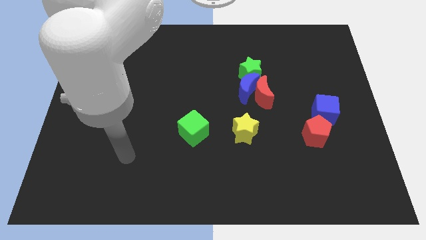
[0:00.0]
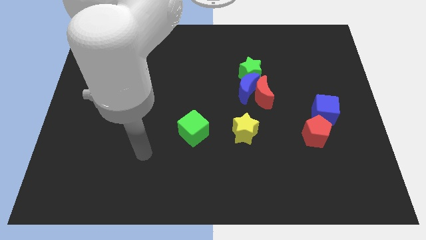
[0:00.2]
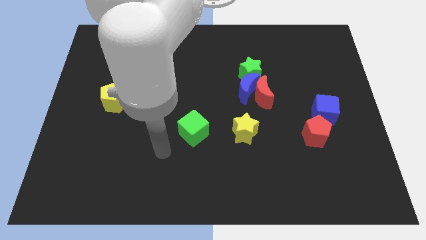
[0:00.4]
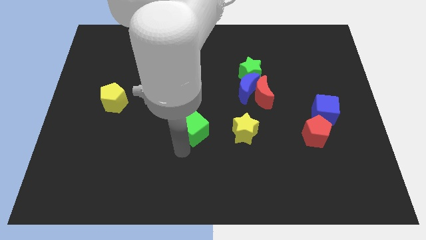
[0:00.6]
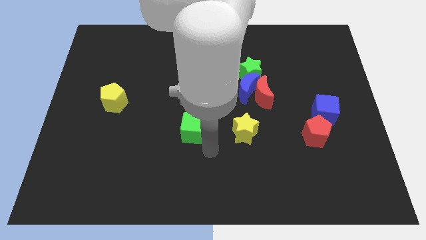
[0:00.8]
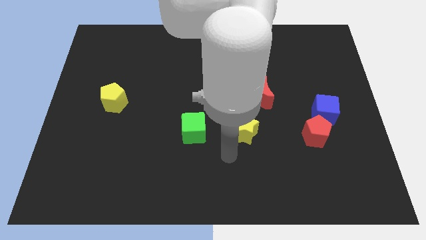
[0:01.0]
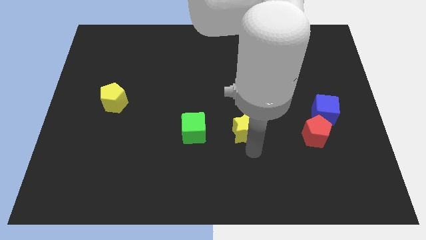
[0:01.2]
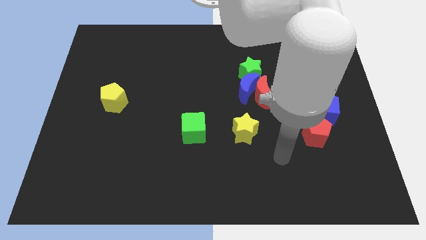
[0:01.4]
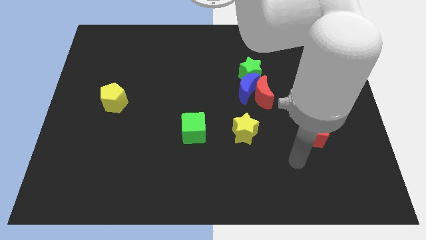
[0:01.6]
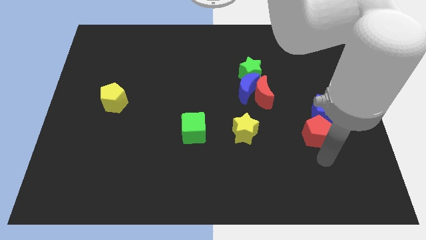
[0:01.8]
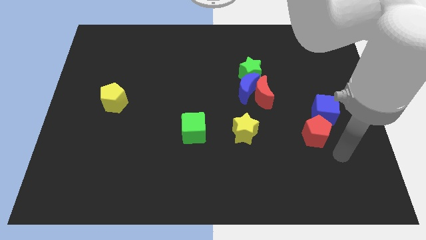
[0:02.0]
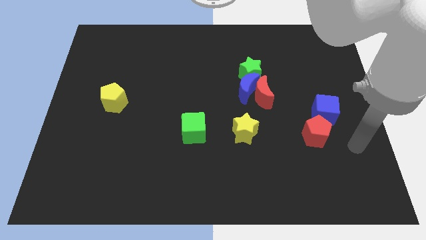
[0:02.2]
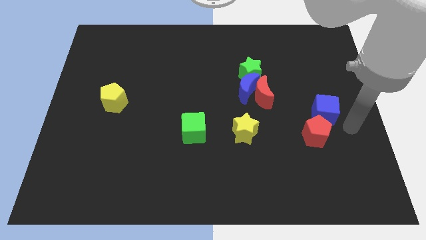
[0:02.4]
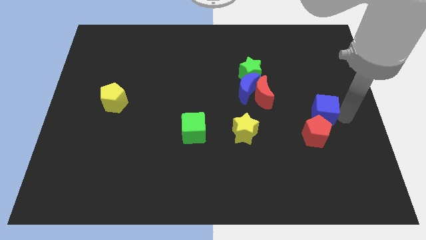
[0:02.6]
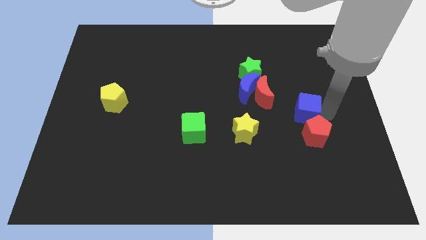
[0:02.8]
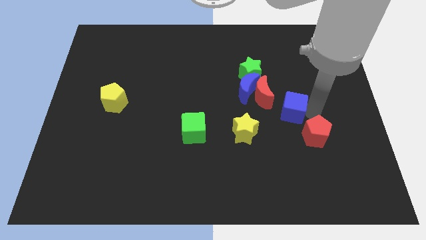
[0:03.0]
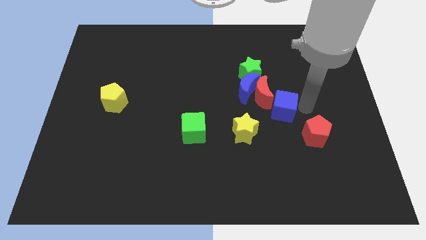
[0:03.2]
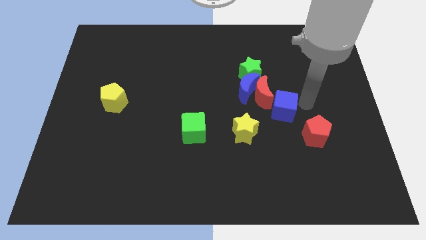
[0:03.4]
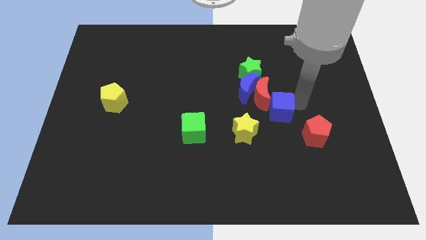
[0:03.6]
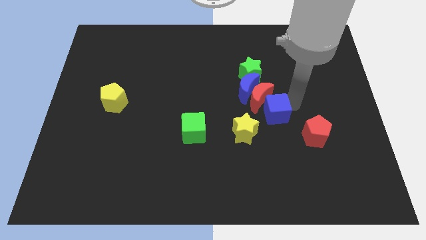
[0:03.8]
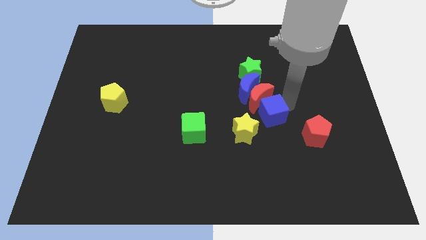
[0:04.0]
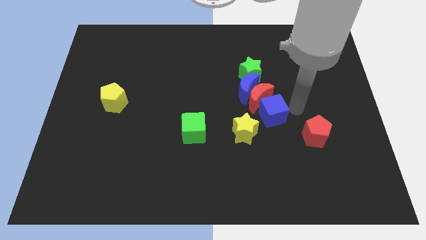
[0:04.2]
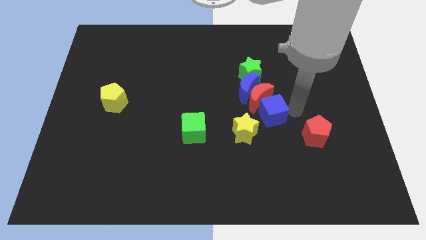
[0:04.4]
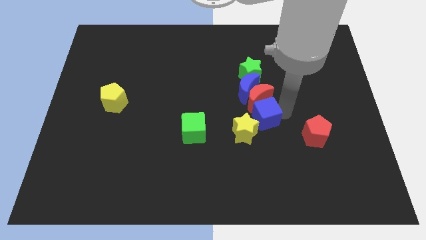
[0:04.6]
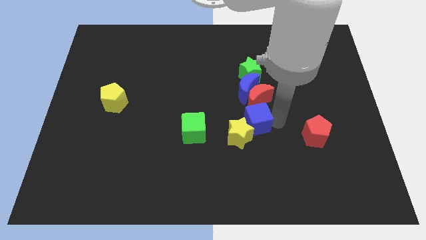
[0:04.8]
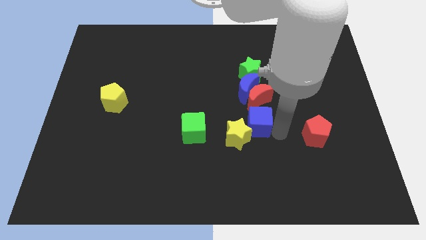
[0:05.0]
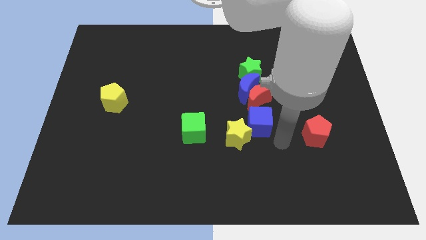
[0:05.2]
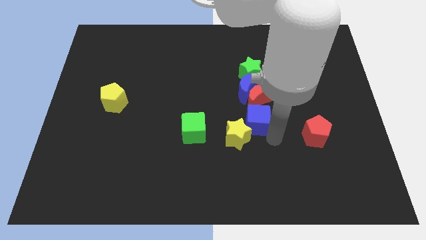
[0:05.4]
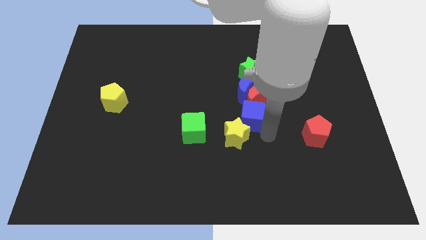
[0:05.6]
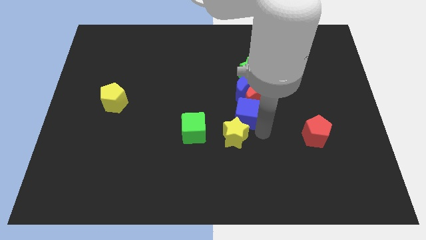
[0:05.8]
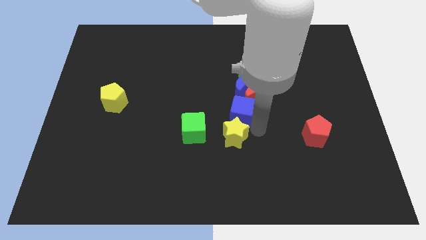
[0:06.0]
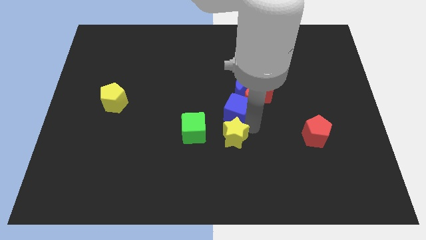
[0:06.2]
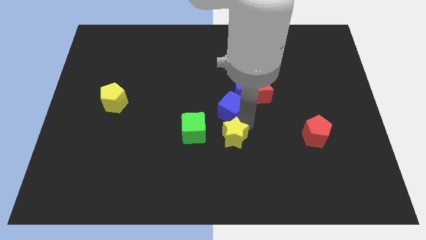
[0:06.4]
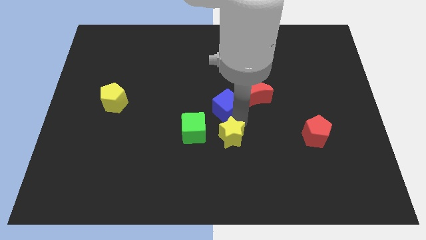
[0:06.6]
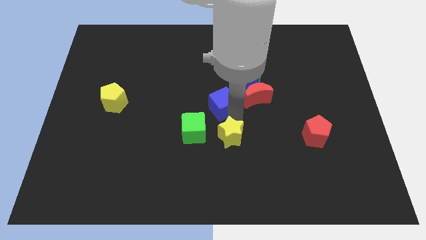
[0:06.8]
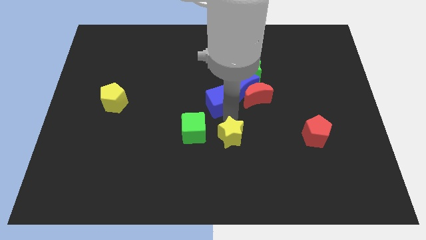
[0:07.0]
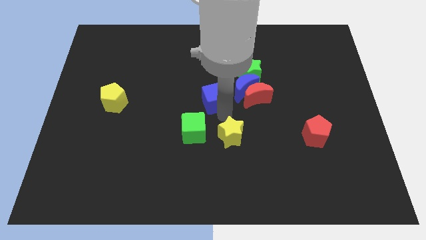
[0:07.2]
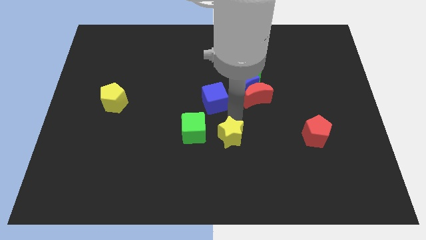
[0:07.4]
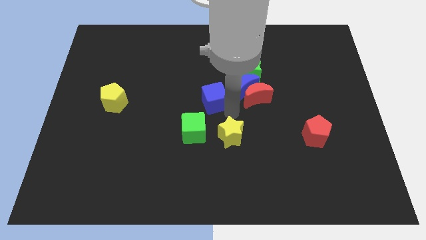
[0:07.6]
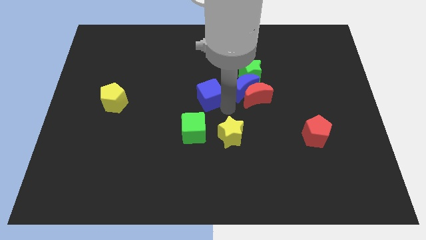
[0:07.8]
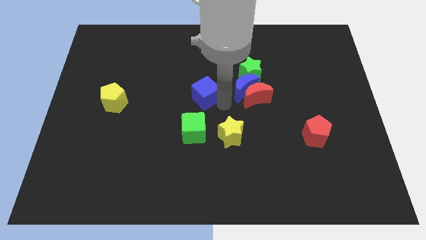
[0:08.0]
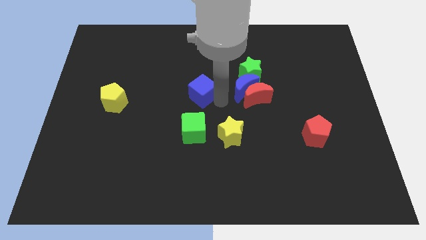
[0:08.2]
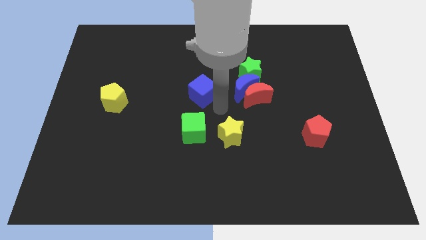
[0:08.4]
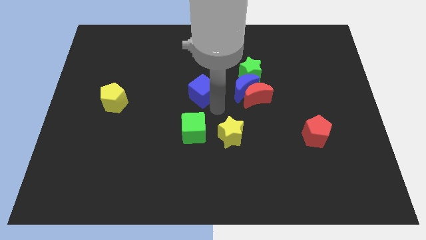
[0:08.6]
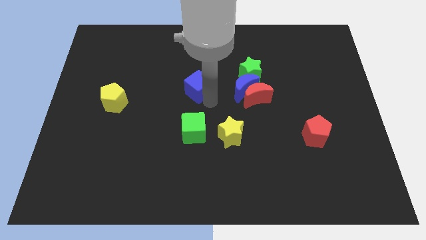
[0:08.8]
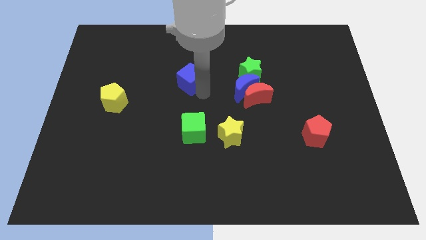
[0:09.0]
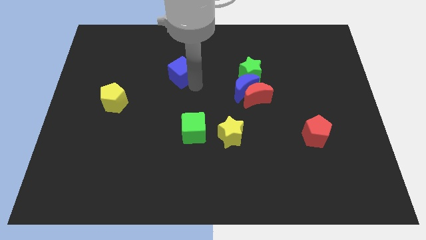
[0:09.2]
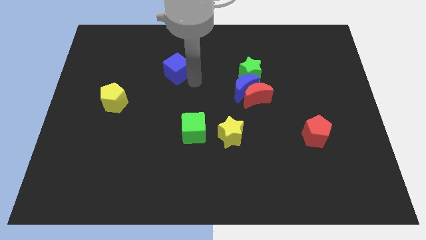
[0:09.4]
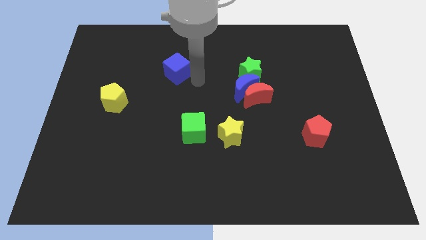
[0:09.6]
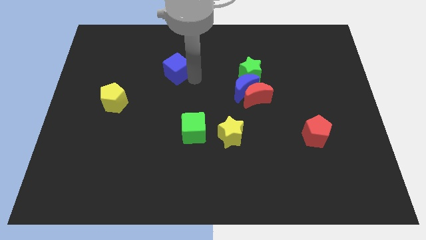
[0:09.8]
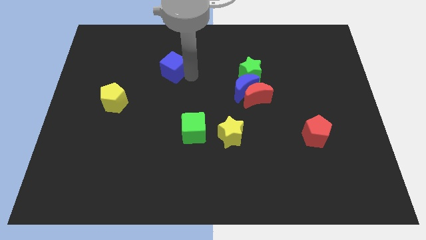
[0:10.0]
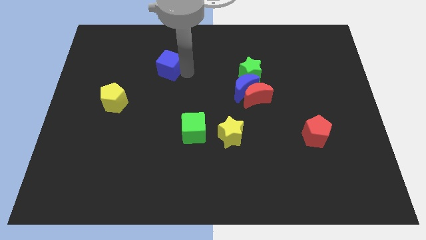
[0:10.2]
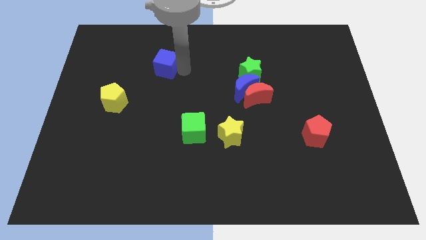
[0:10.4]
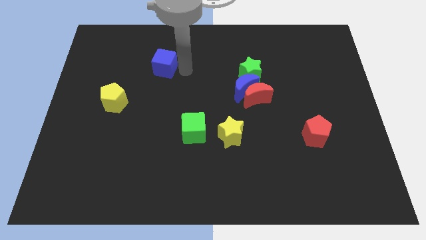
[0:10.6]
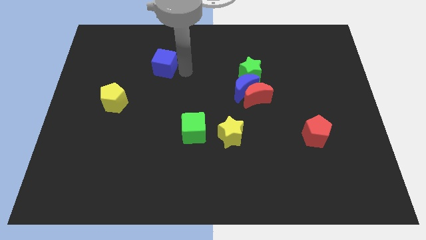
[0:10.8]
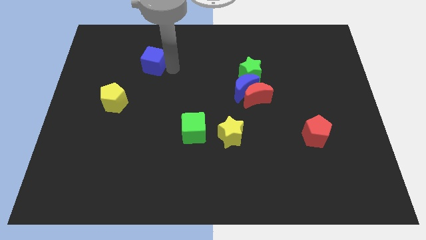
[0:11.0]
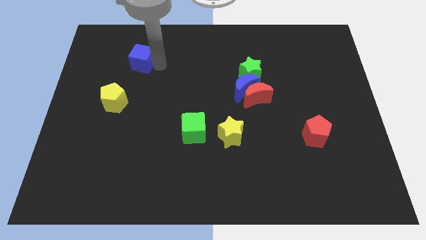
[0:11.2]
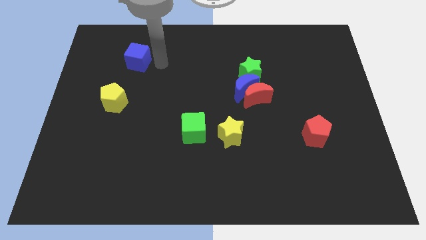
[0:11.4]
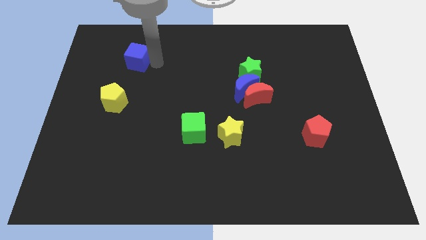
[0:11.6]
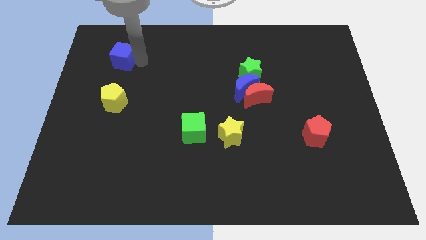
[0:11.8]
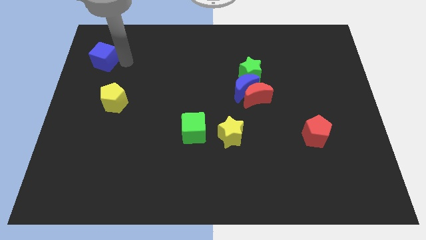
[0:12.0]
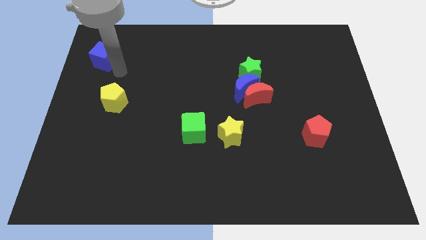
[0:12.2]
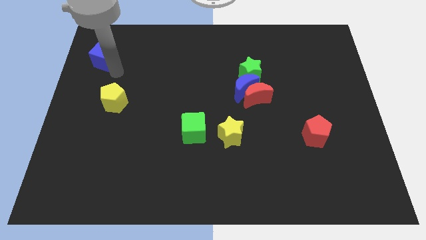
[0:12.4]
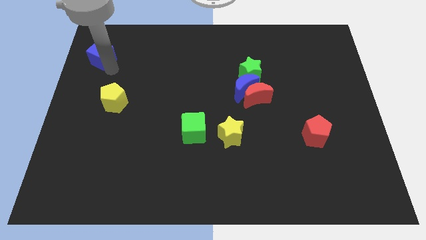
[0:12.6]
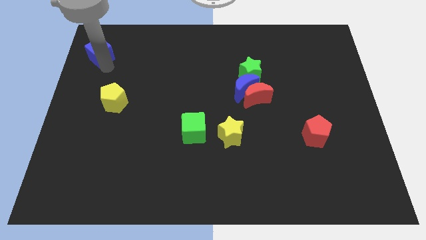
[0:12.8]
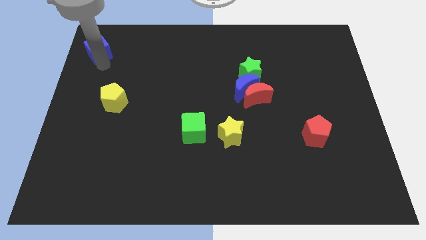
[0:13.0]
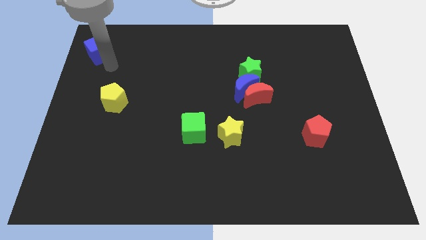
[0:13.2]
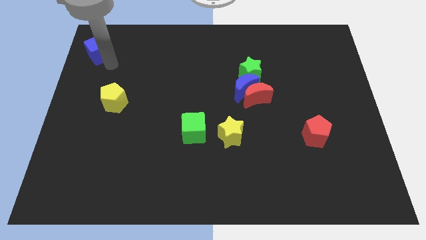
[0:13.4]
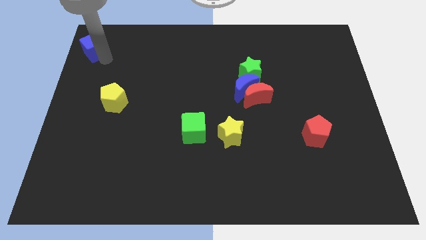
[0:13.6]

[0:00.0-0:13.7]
push the blue cube to the top left corner
